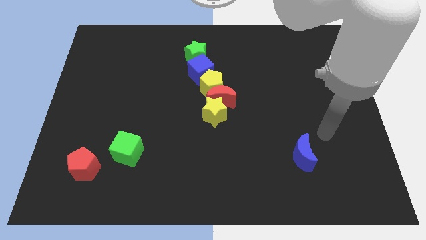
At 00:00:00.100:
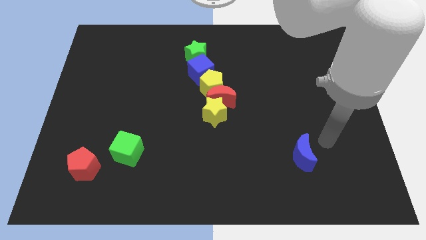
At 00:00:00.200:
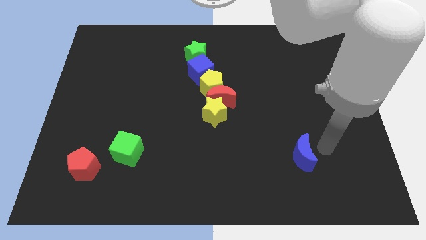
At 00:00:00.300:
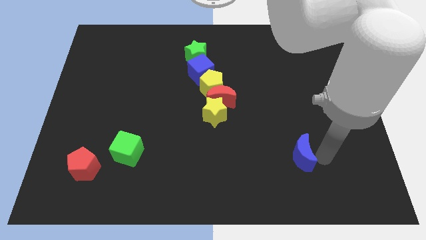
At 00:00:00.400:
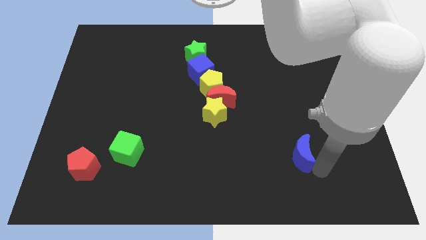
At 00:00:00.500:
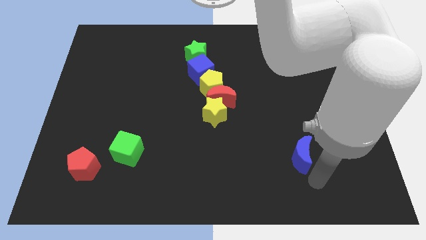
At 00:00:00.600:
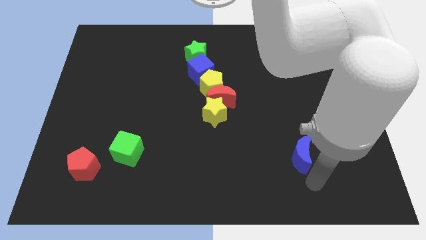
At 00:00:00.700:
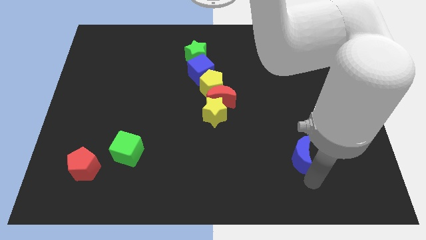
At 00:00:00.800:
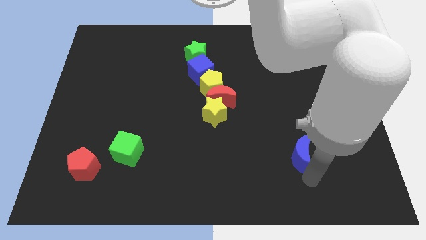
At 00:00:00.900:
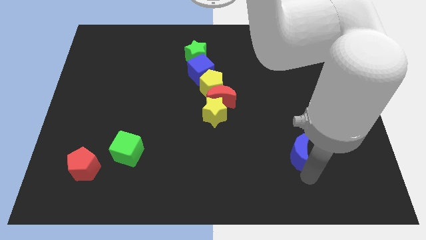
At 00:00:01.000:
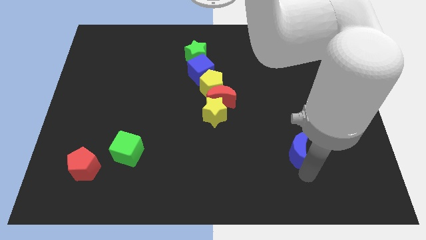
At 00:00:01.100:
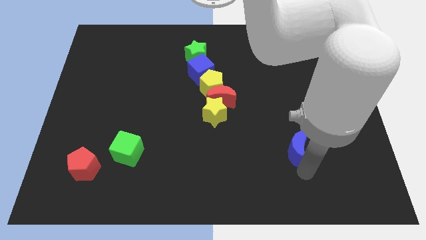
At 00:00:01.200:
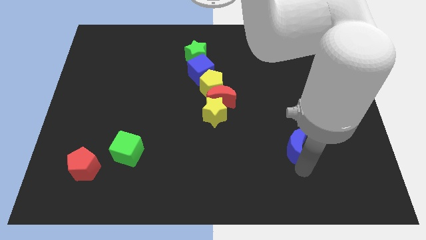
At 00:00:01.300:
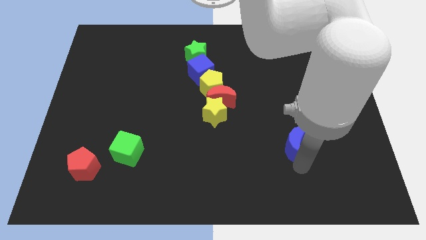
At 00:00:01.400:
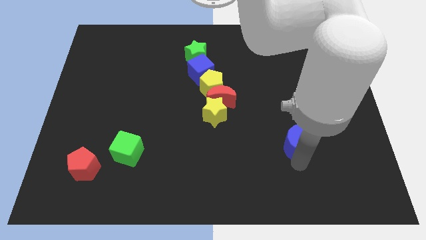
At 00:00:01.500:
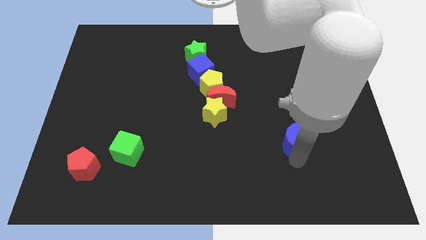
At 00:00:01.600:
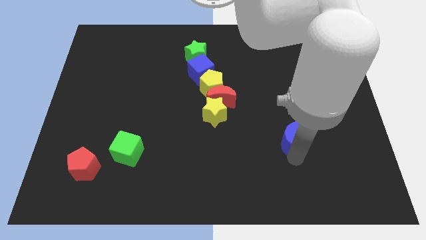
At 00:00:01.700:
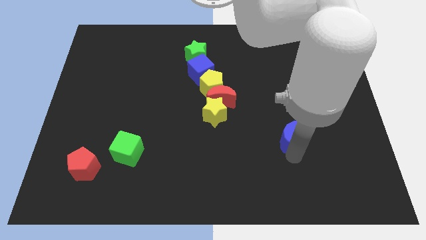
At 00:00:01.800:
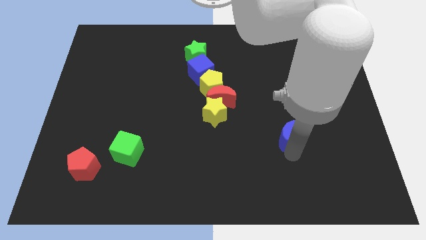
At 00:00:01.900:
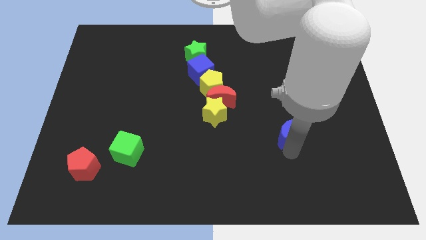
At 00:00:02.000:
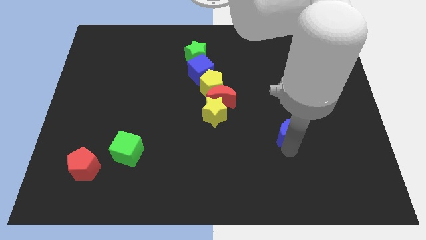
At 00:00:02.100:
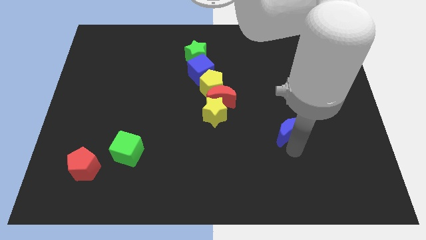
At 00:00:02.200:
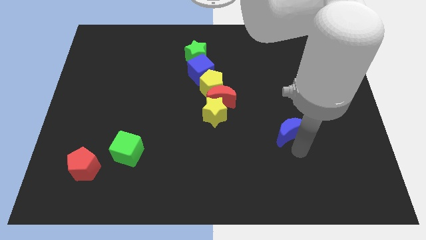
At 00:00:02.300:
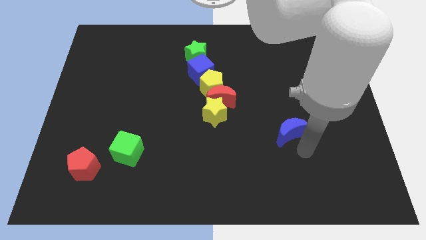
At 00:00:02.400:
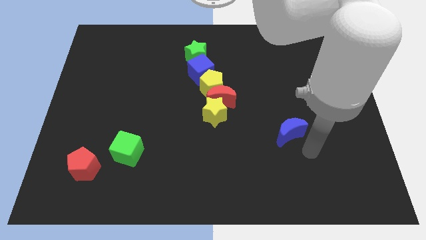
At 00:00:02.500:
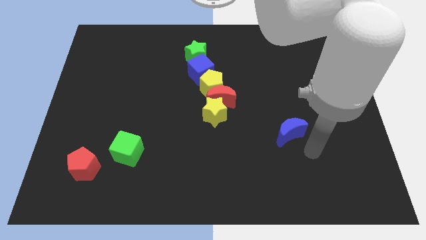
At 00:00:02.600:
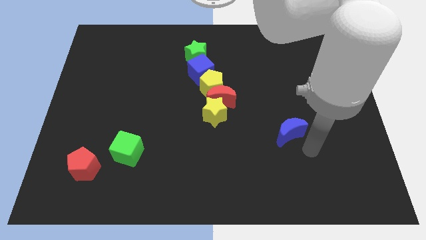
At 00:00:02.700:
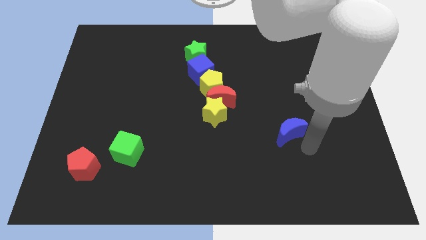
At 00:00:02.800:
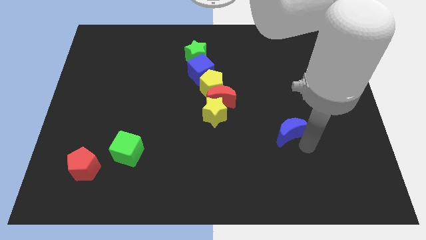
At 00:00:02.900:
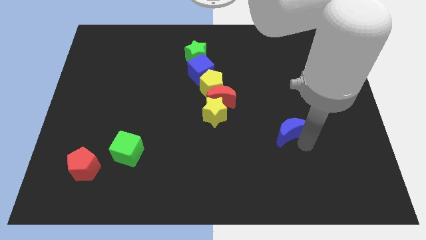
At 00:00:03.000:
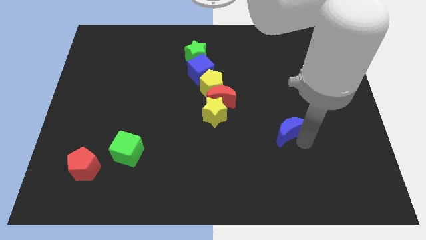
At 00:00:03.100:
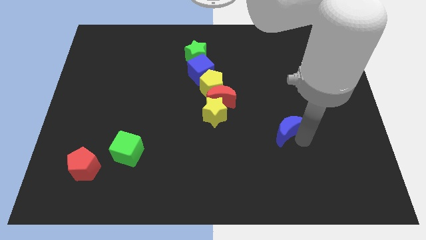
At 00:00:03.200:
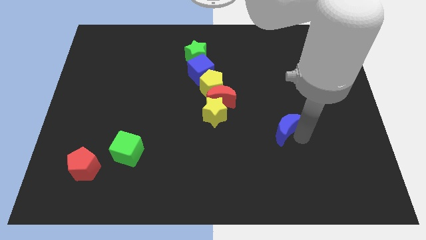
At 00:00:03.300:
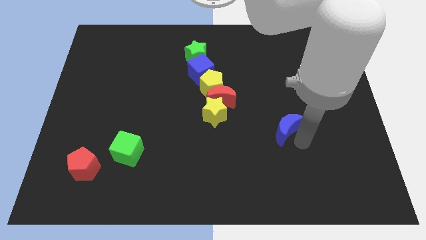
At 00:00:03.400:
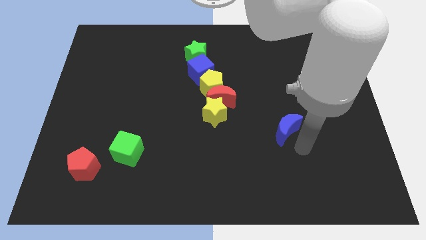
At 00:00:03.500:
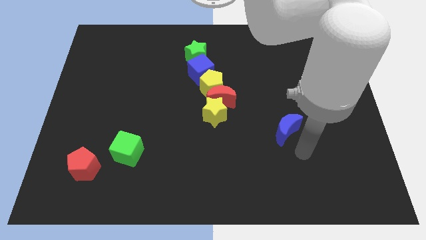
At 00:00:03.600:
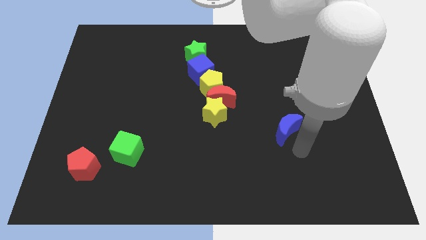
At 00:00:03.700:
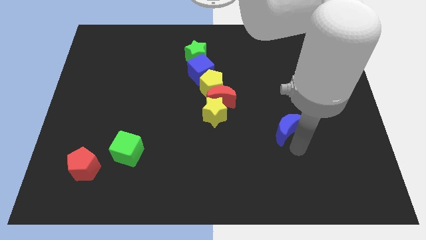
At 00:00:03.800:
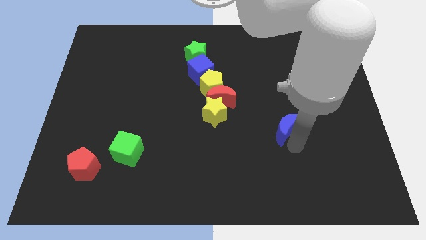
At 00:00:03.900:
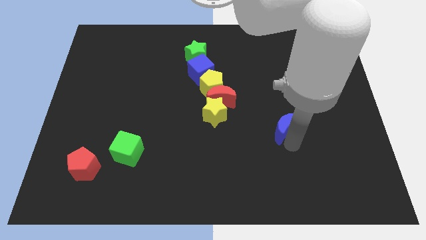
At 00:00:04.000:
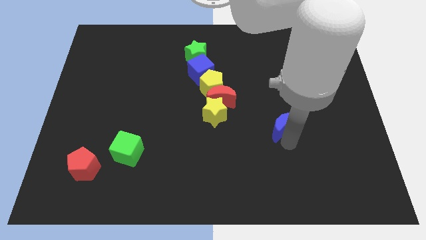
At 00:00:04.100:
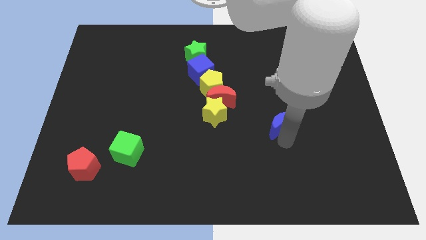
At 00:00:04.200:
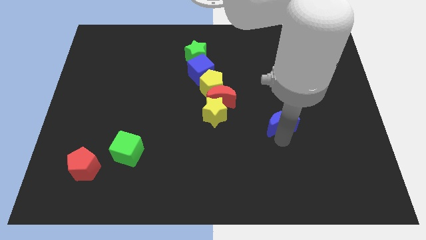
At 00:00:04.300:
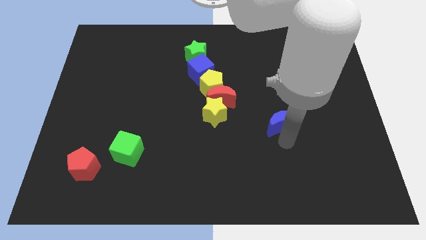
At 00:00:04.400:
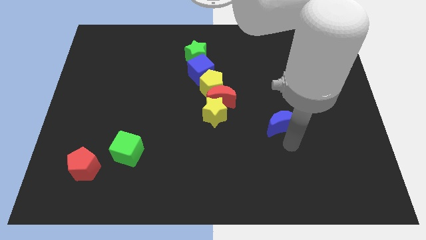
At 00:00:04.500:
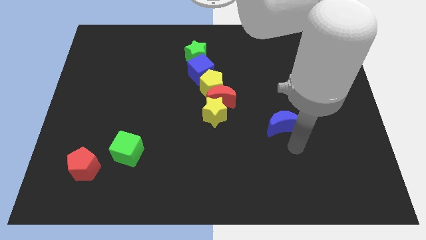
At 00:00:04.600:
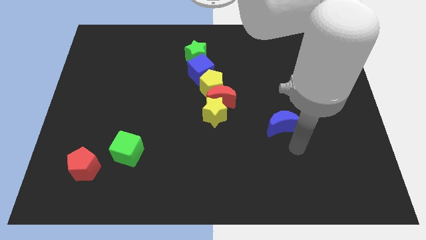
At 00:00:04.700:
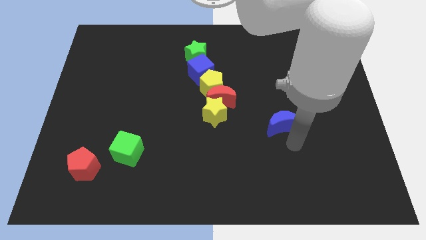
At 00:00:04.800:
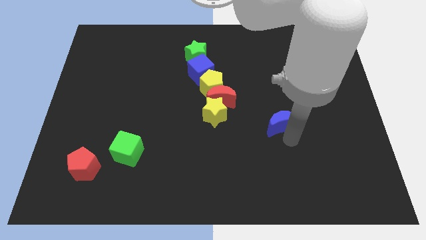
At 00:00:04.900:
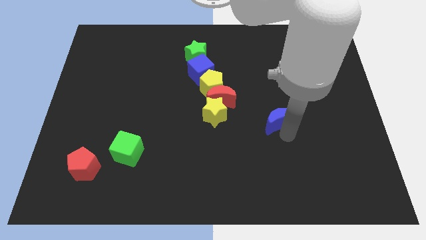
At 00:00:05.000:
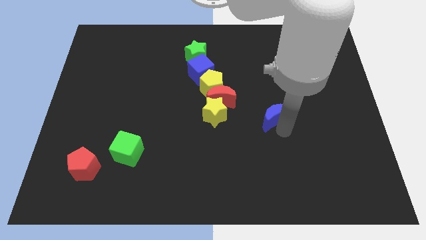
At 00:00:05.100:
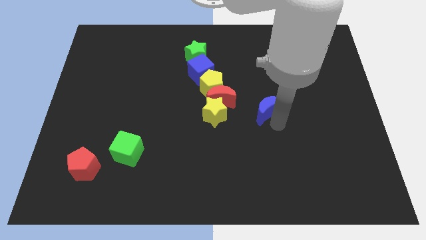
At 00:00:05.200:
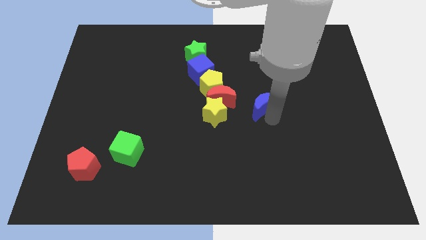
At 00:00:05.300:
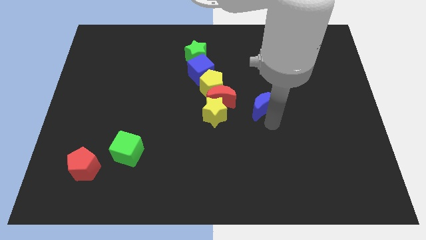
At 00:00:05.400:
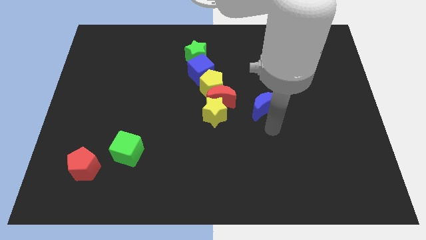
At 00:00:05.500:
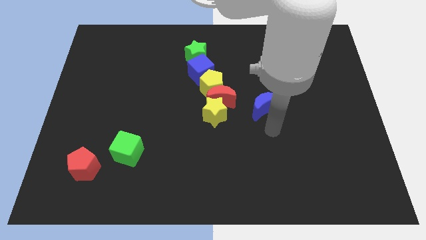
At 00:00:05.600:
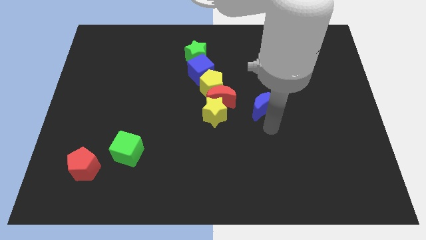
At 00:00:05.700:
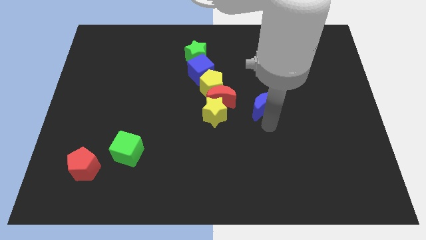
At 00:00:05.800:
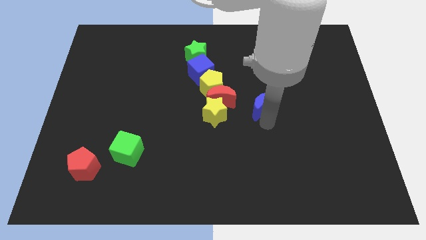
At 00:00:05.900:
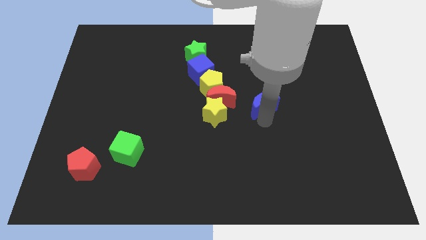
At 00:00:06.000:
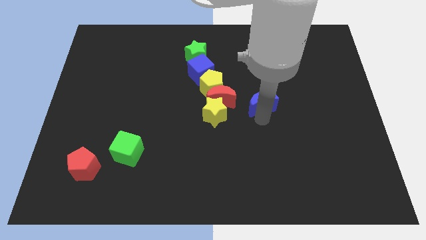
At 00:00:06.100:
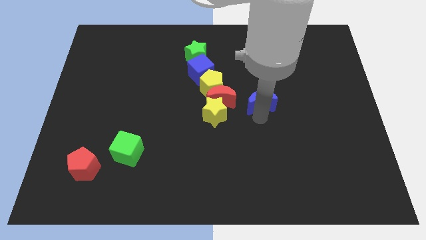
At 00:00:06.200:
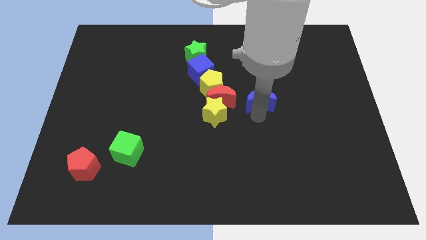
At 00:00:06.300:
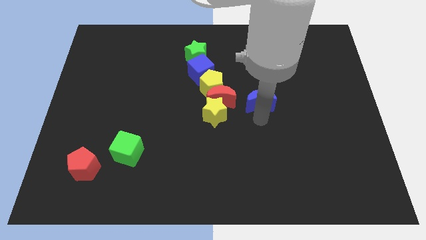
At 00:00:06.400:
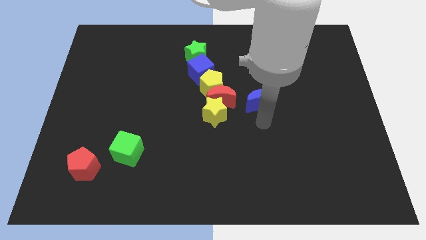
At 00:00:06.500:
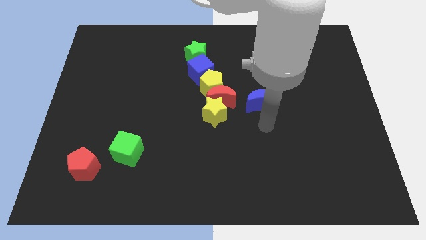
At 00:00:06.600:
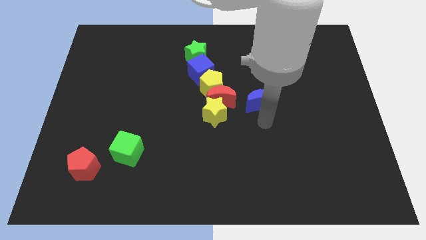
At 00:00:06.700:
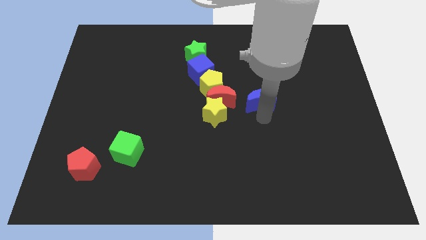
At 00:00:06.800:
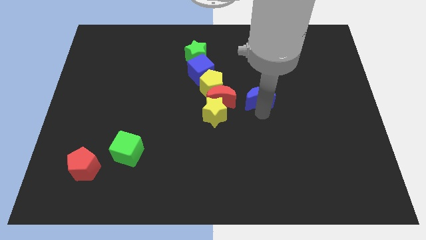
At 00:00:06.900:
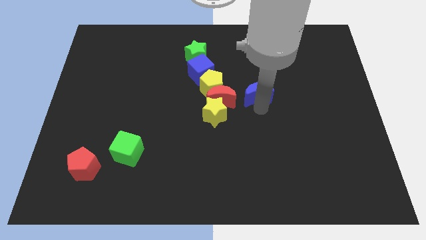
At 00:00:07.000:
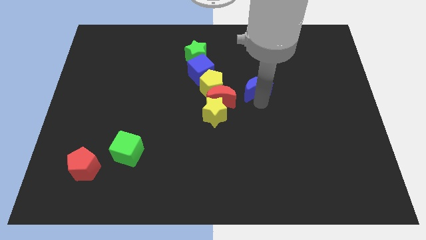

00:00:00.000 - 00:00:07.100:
put the blue moon to the top right of the red moon
